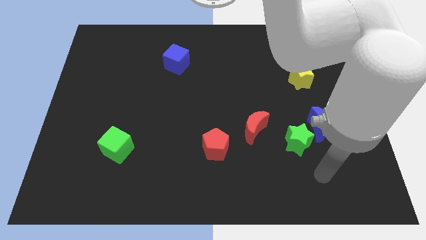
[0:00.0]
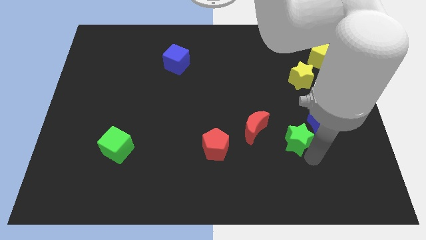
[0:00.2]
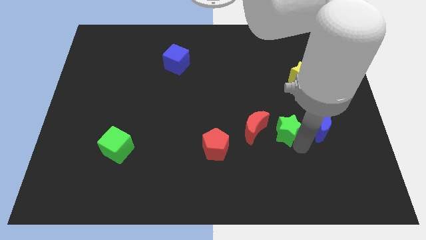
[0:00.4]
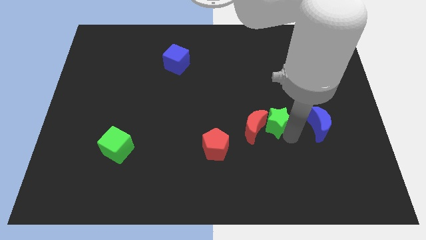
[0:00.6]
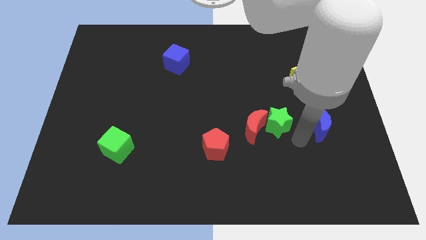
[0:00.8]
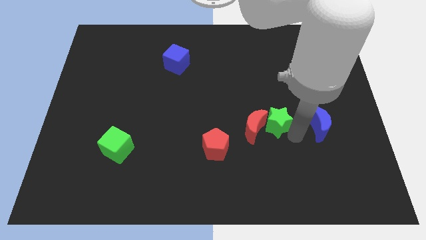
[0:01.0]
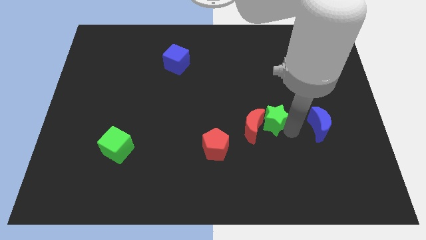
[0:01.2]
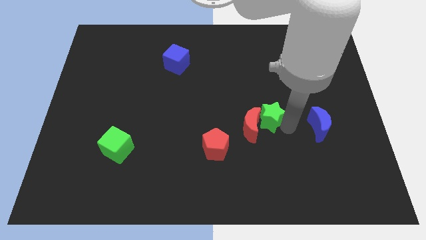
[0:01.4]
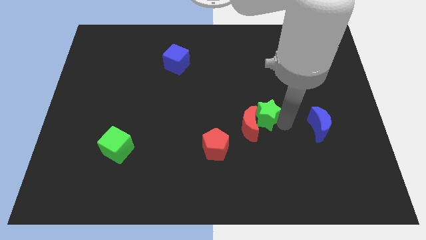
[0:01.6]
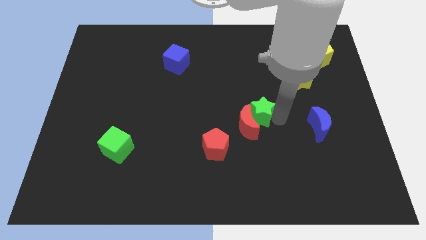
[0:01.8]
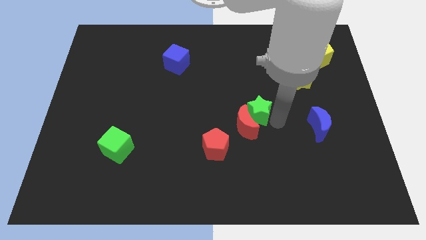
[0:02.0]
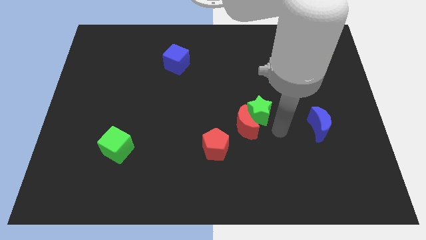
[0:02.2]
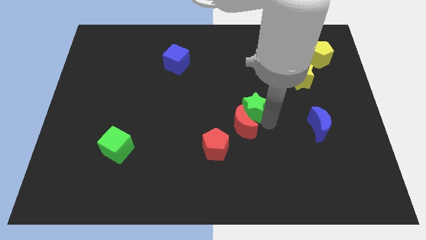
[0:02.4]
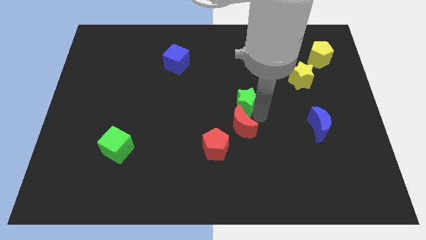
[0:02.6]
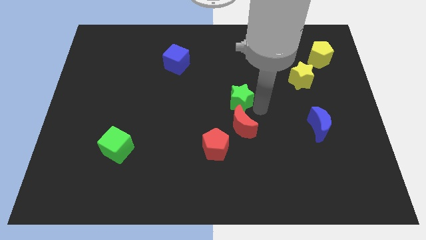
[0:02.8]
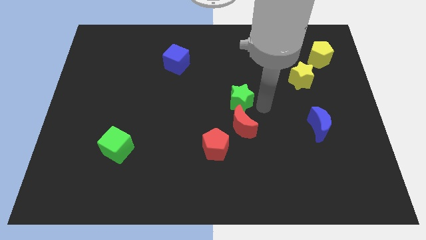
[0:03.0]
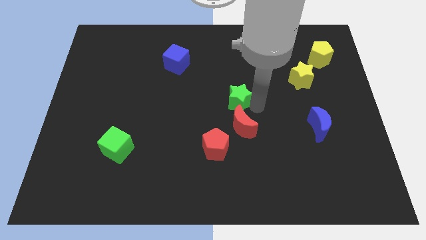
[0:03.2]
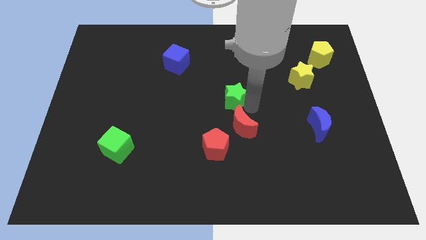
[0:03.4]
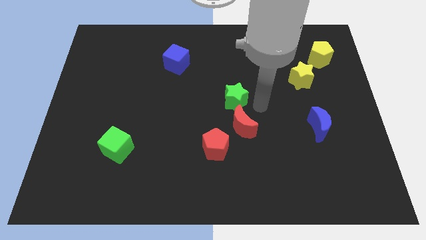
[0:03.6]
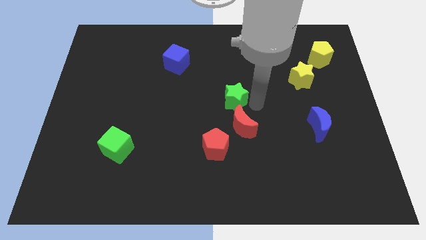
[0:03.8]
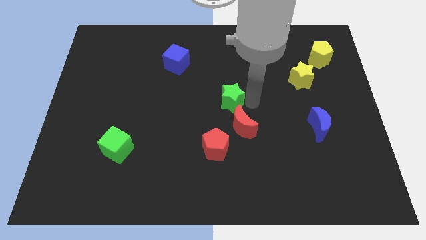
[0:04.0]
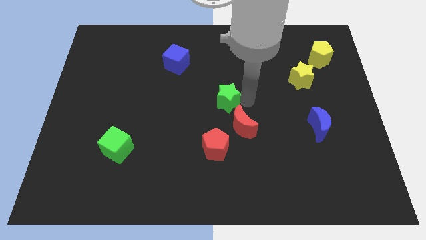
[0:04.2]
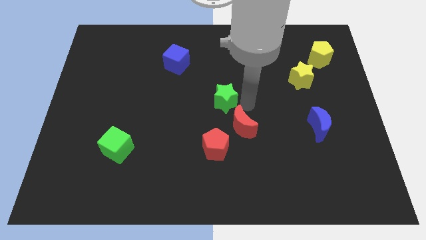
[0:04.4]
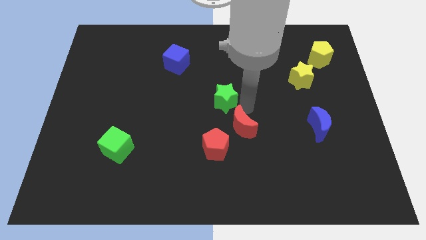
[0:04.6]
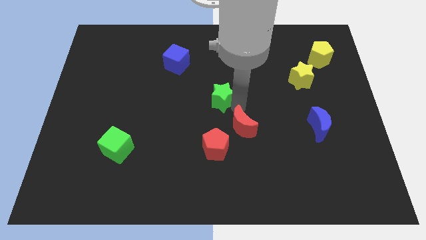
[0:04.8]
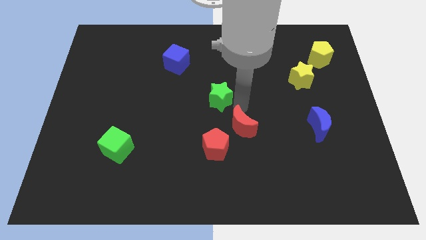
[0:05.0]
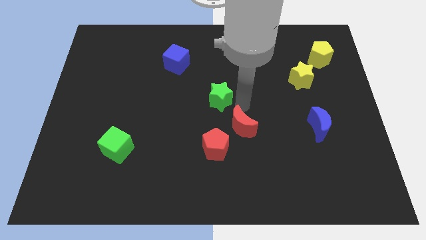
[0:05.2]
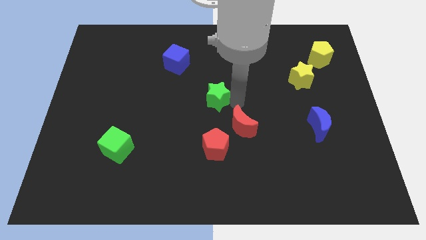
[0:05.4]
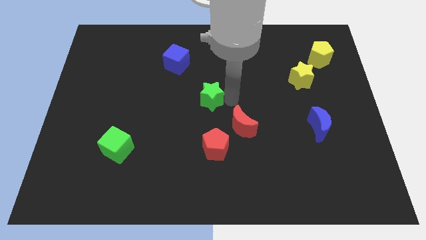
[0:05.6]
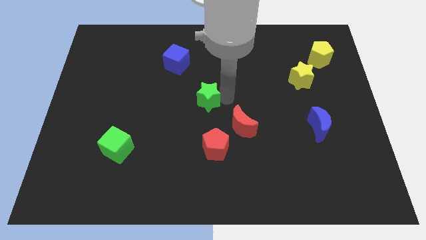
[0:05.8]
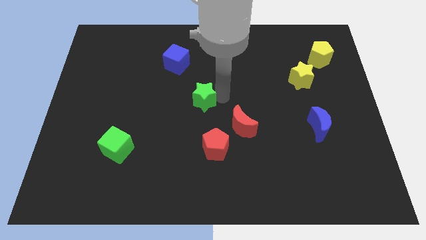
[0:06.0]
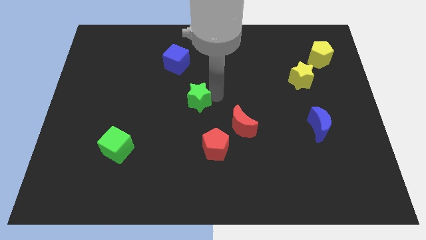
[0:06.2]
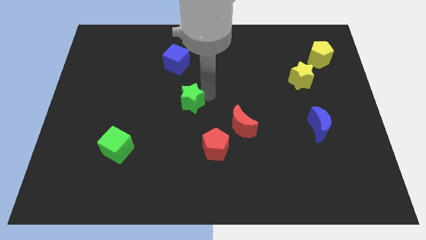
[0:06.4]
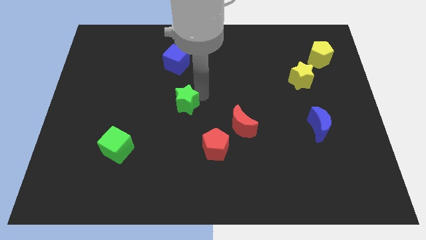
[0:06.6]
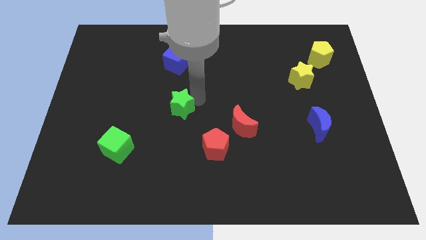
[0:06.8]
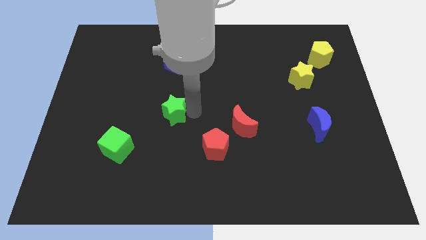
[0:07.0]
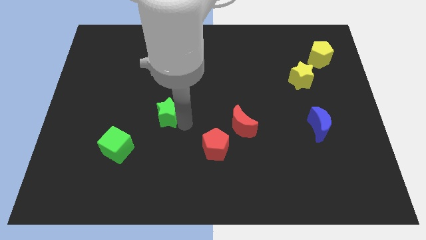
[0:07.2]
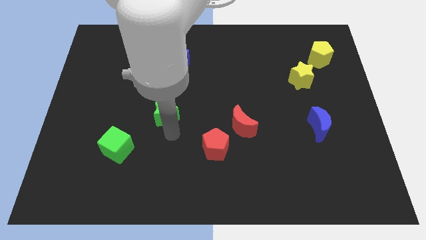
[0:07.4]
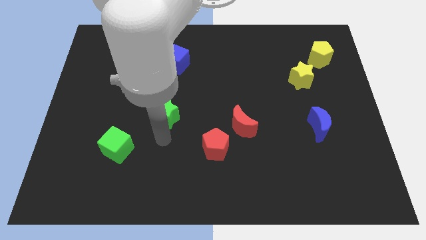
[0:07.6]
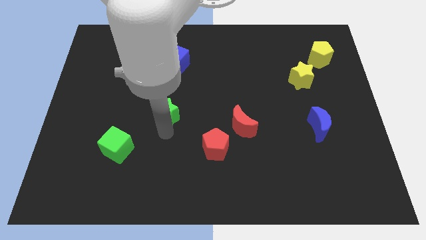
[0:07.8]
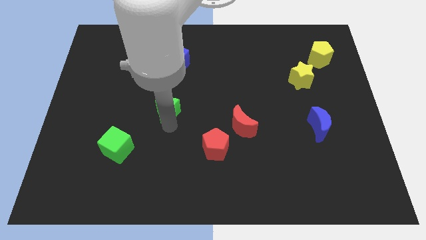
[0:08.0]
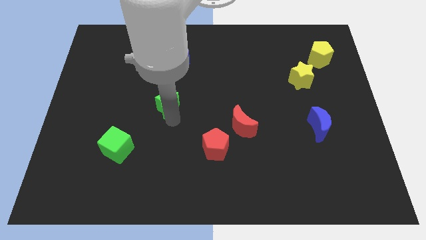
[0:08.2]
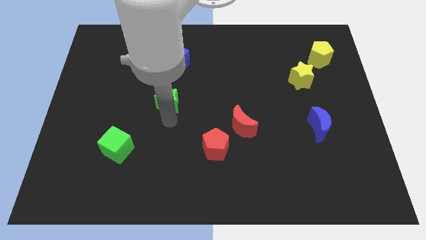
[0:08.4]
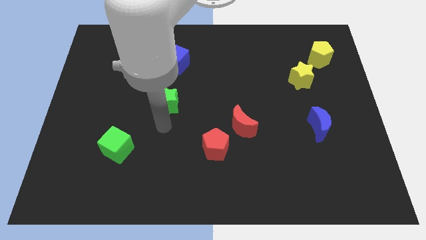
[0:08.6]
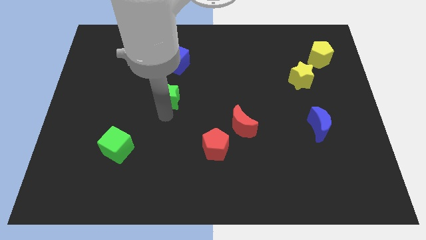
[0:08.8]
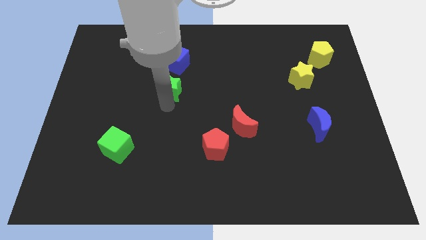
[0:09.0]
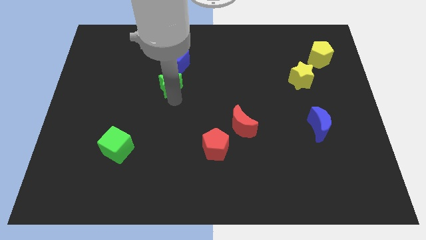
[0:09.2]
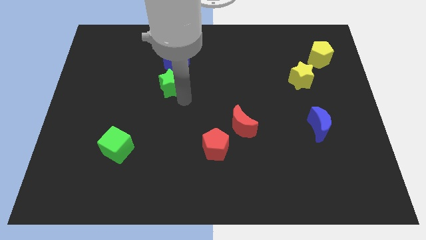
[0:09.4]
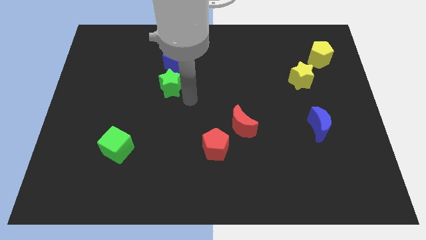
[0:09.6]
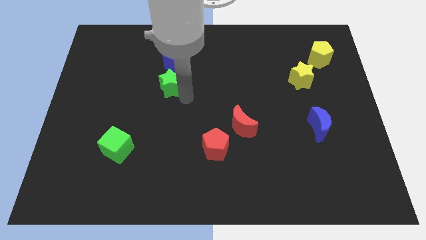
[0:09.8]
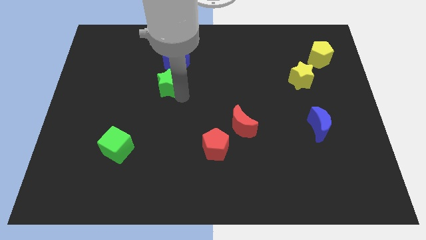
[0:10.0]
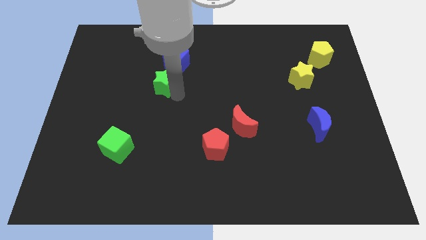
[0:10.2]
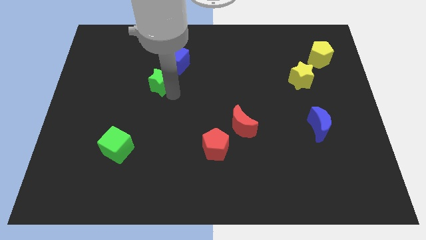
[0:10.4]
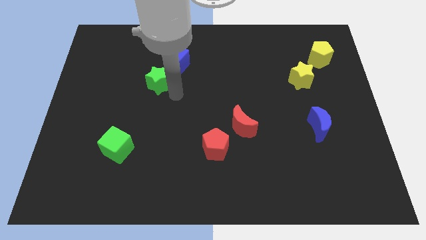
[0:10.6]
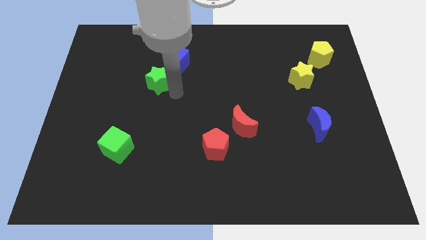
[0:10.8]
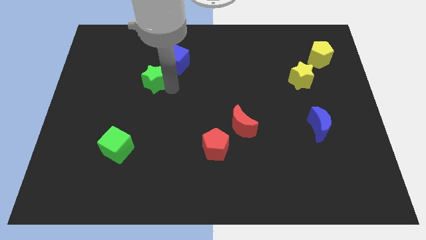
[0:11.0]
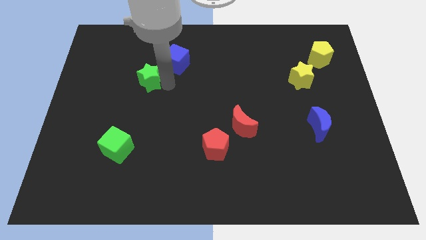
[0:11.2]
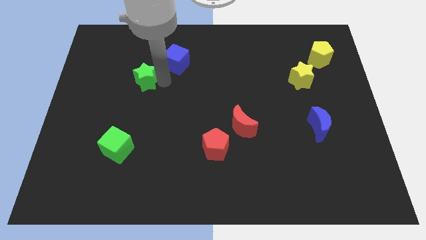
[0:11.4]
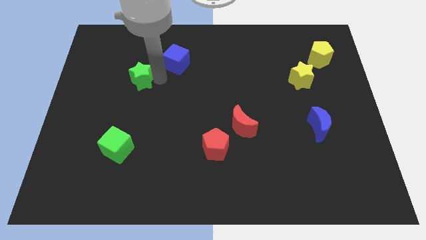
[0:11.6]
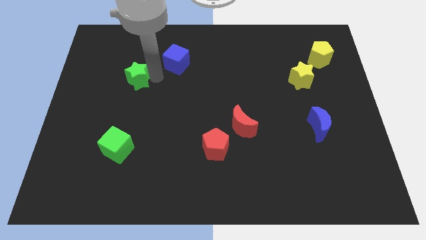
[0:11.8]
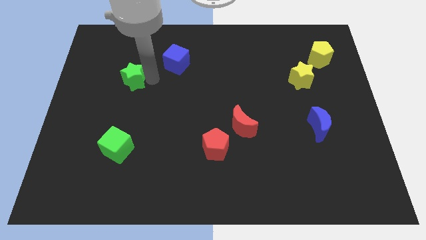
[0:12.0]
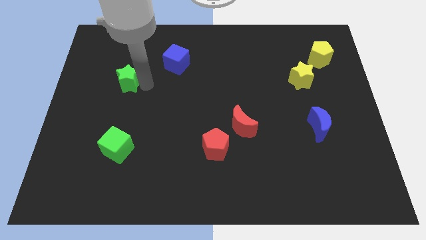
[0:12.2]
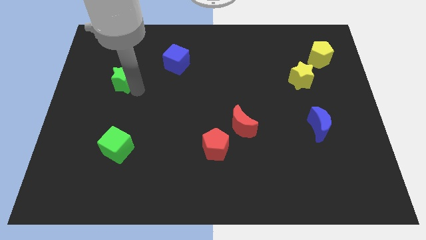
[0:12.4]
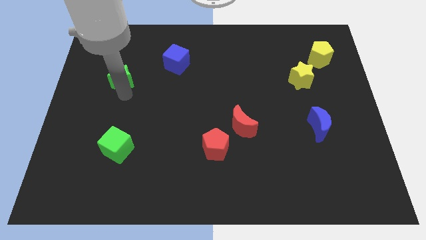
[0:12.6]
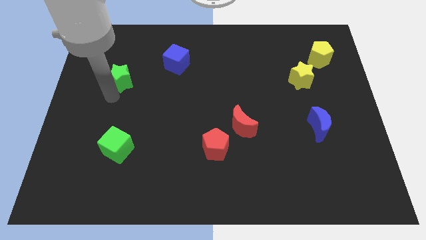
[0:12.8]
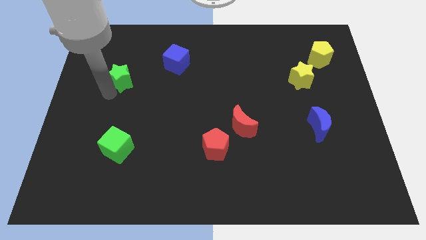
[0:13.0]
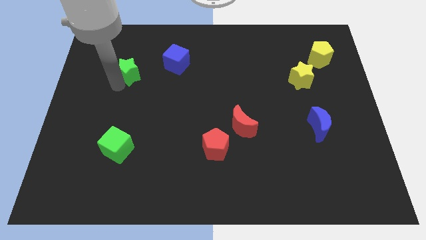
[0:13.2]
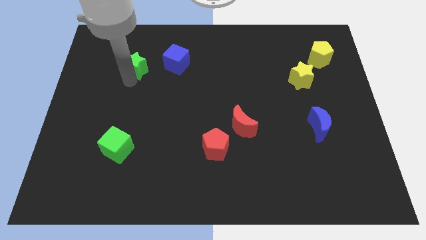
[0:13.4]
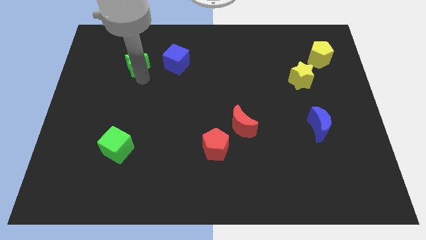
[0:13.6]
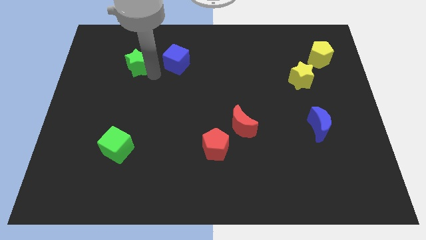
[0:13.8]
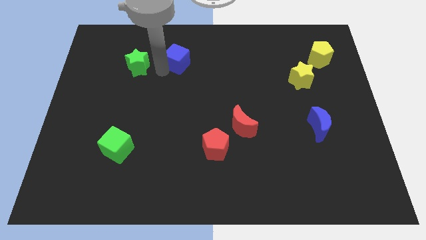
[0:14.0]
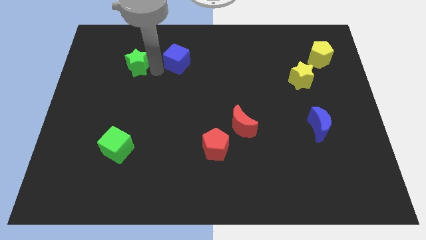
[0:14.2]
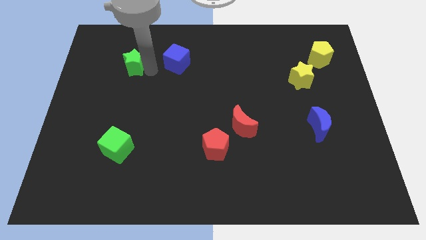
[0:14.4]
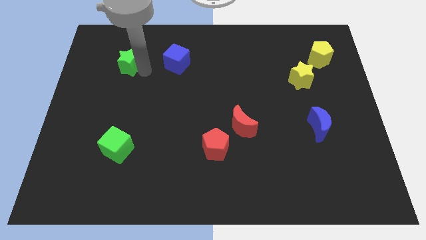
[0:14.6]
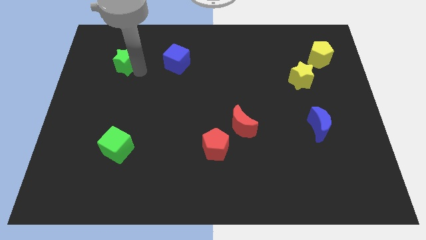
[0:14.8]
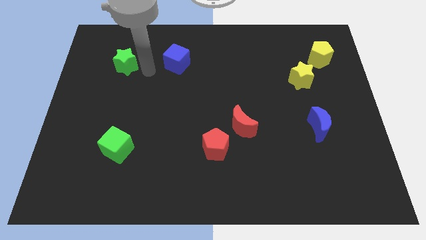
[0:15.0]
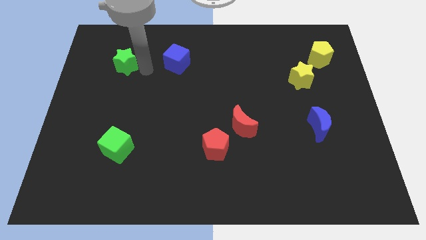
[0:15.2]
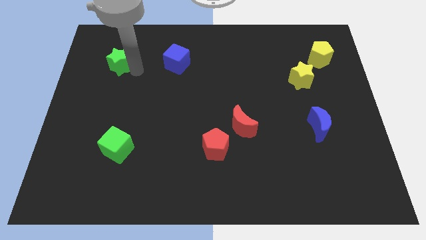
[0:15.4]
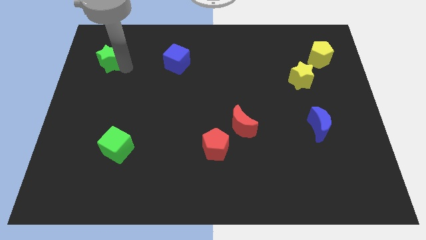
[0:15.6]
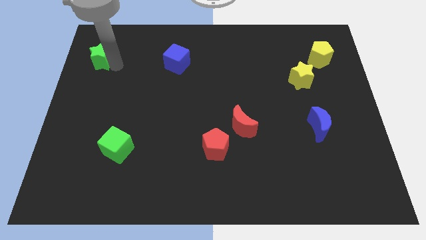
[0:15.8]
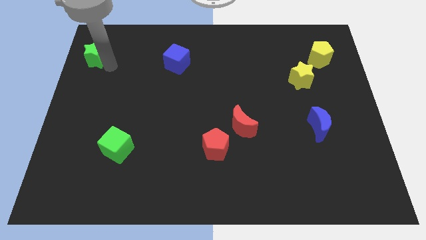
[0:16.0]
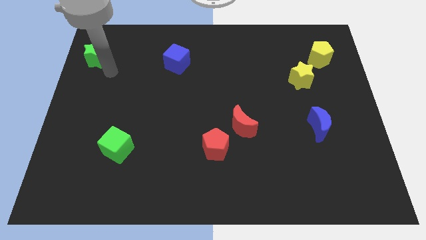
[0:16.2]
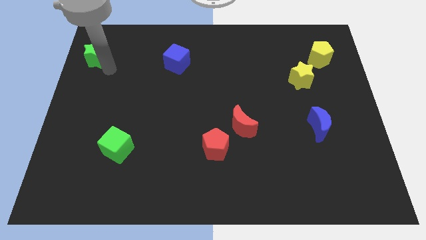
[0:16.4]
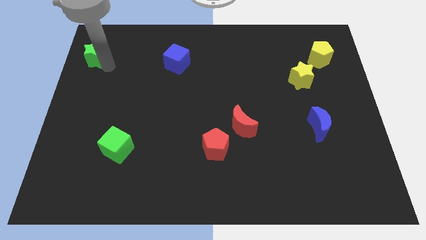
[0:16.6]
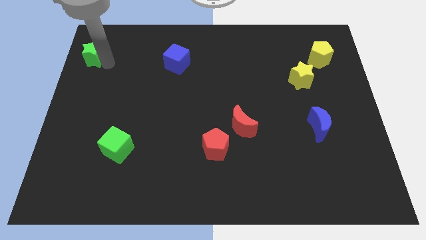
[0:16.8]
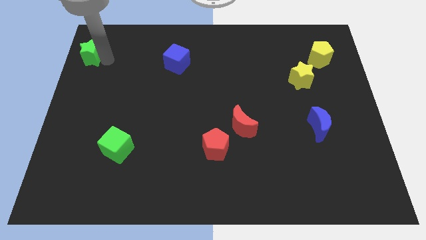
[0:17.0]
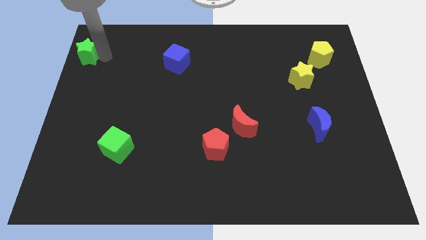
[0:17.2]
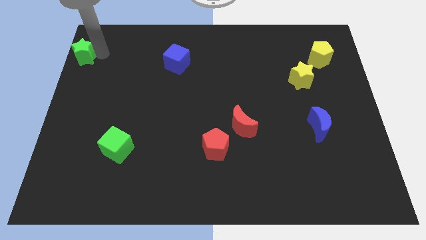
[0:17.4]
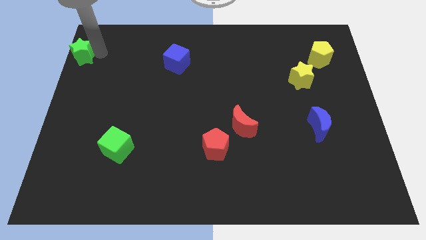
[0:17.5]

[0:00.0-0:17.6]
move the green star to the top left corner
